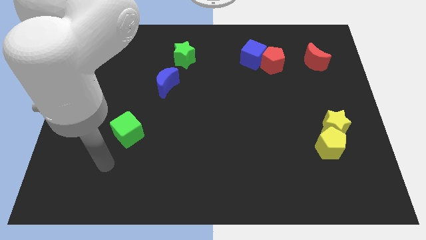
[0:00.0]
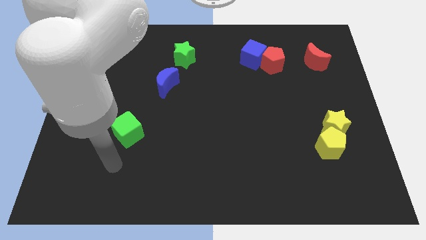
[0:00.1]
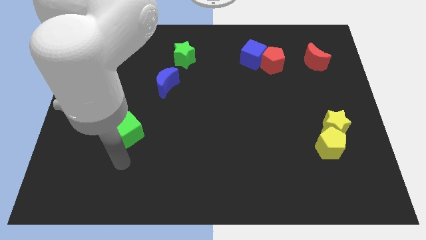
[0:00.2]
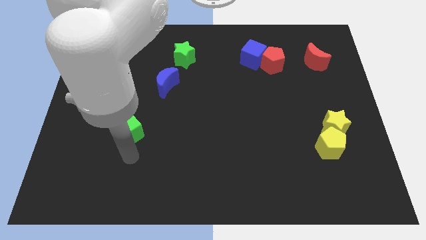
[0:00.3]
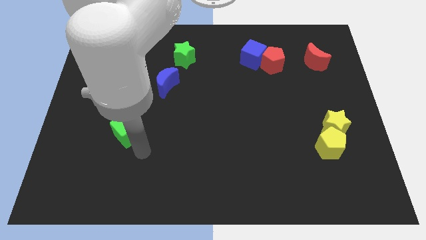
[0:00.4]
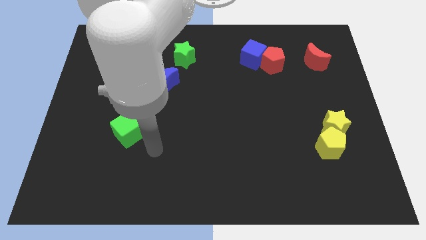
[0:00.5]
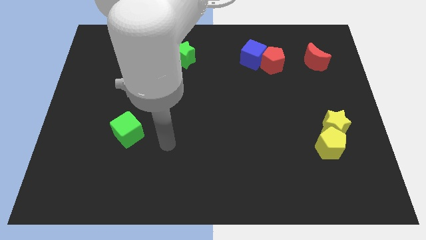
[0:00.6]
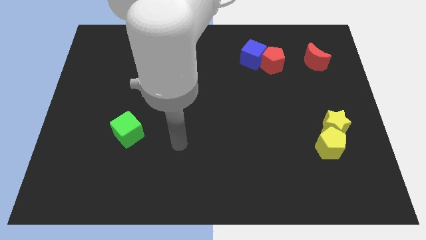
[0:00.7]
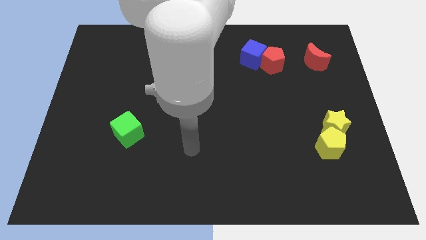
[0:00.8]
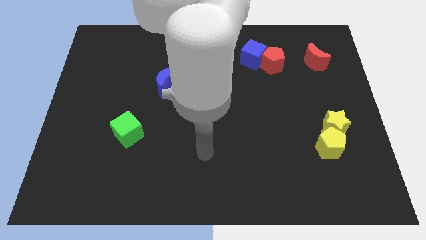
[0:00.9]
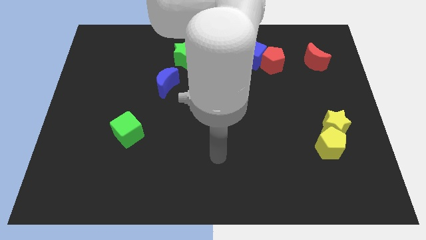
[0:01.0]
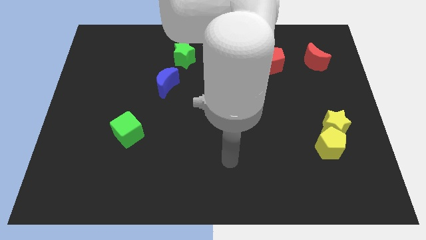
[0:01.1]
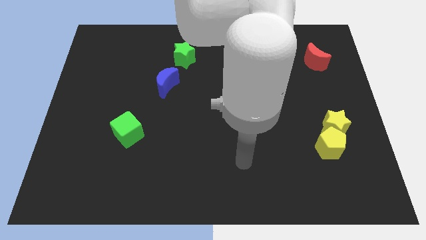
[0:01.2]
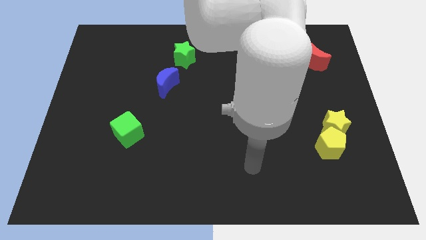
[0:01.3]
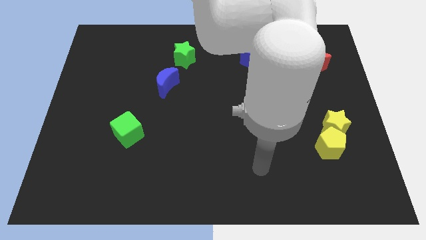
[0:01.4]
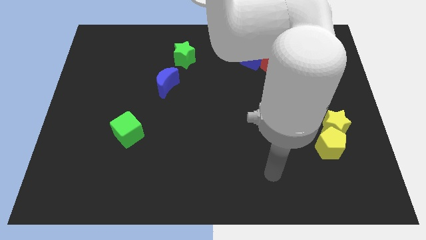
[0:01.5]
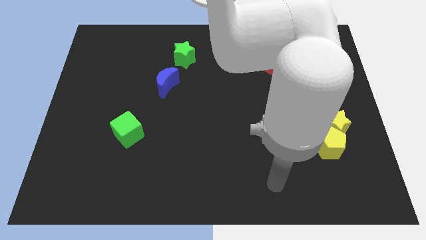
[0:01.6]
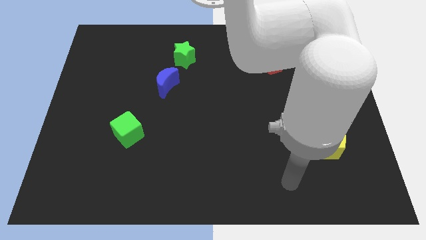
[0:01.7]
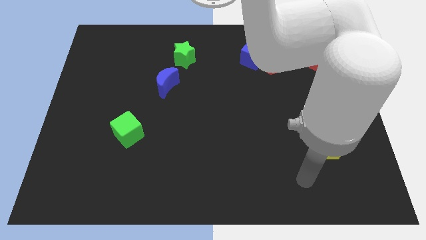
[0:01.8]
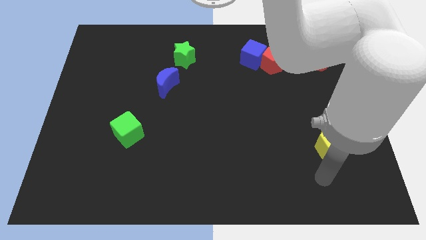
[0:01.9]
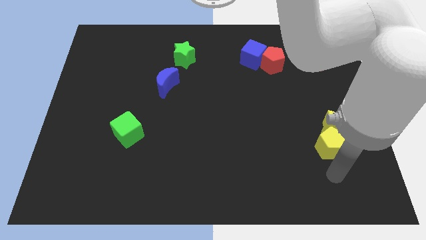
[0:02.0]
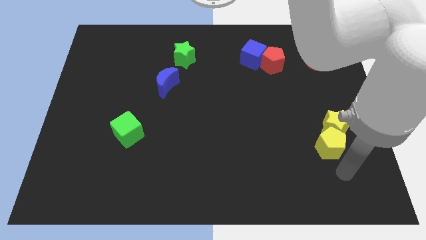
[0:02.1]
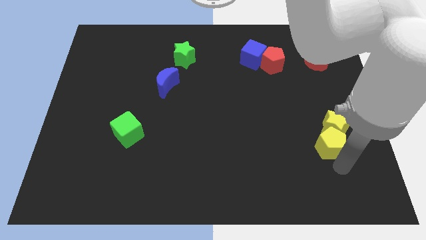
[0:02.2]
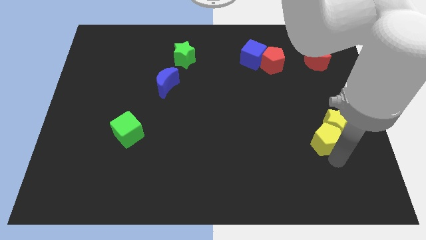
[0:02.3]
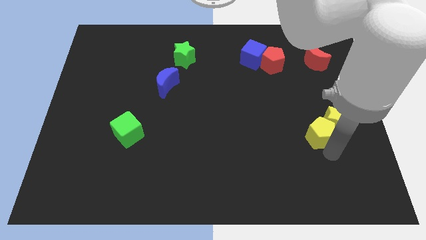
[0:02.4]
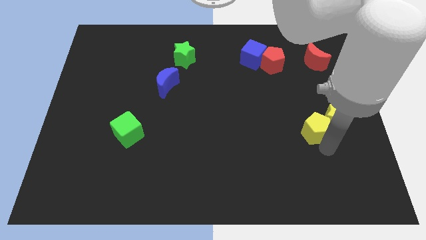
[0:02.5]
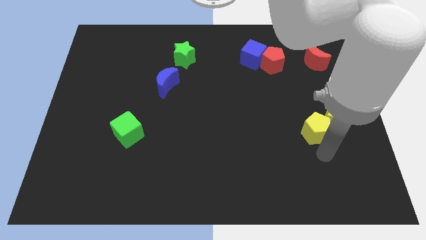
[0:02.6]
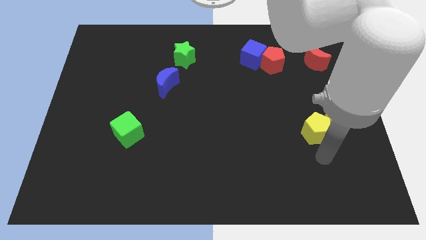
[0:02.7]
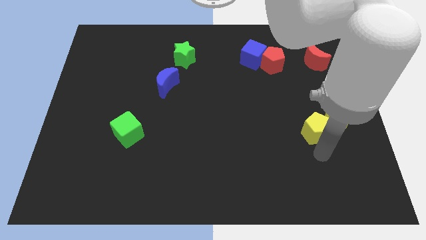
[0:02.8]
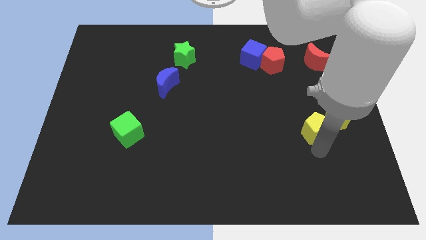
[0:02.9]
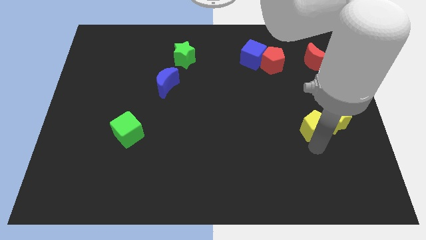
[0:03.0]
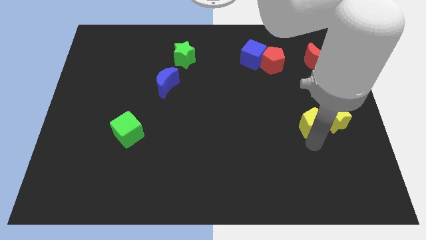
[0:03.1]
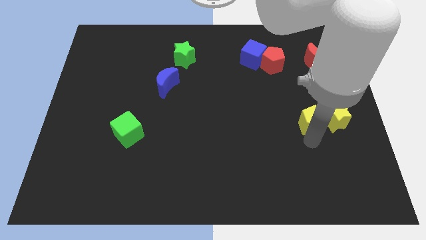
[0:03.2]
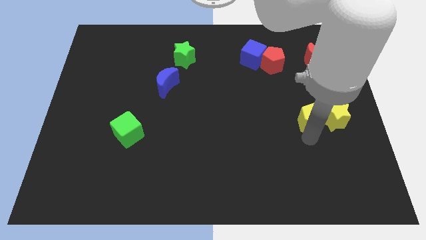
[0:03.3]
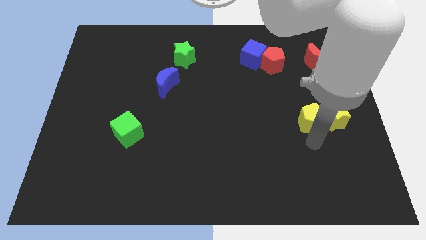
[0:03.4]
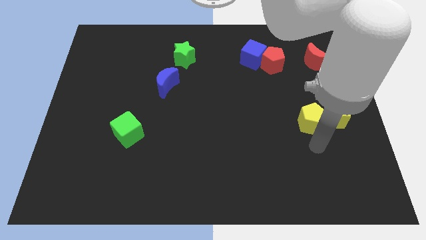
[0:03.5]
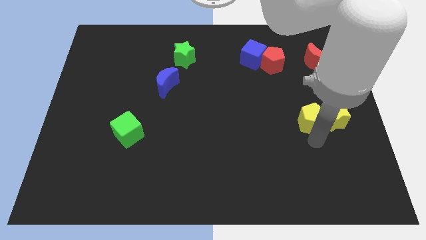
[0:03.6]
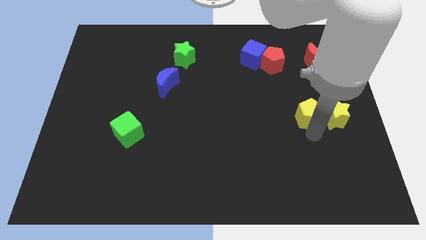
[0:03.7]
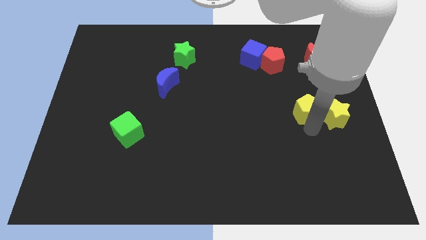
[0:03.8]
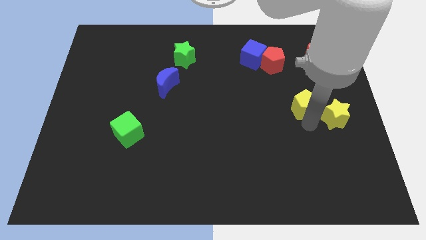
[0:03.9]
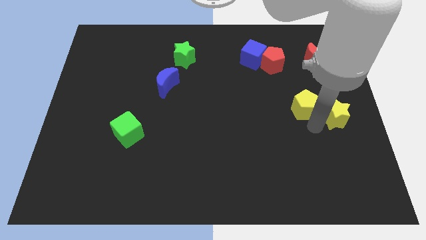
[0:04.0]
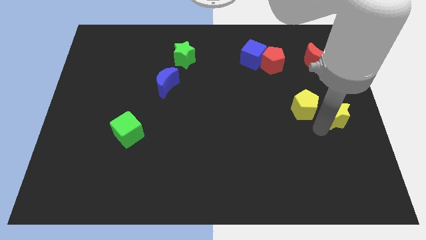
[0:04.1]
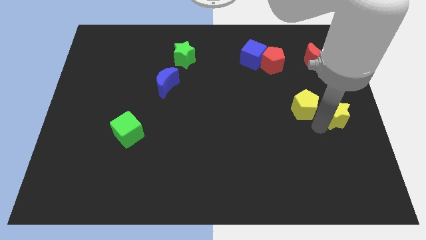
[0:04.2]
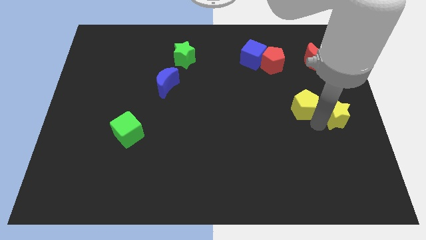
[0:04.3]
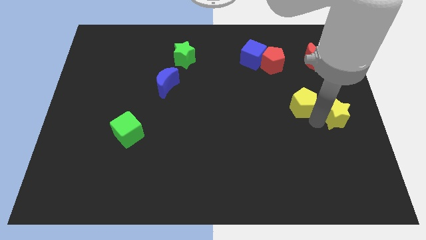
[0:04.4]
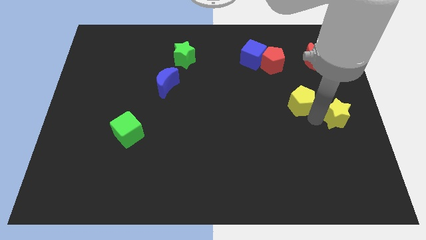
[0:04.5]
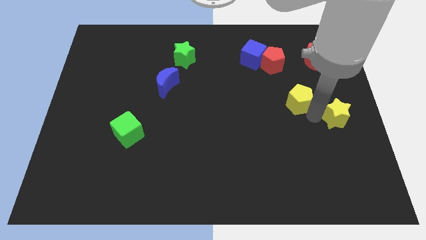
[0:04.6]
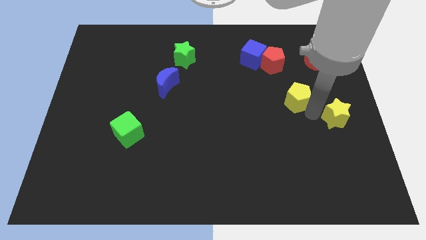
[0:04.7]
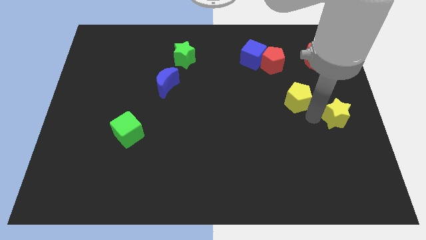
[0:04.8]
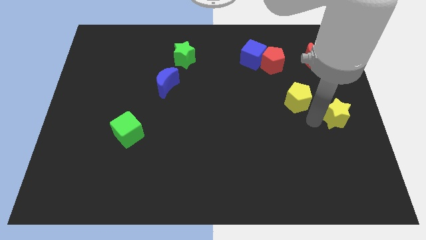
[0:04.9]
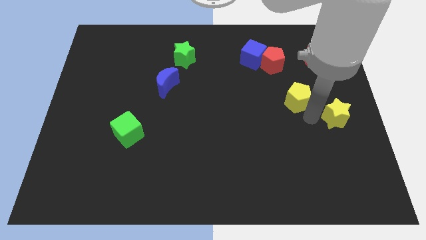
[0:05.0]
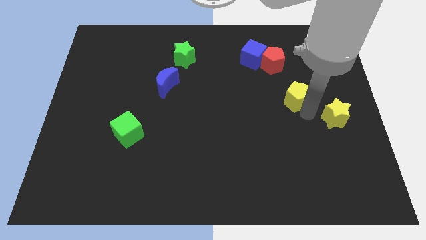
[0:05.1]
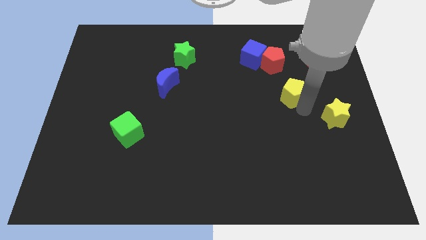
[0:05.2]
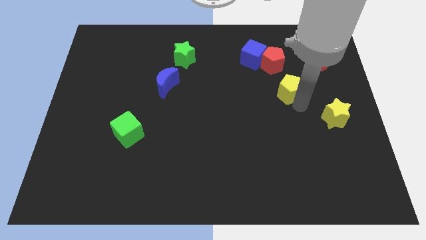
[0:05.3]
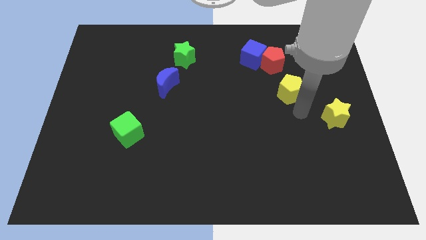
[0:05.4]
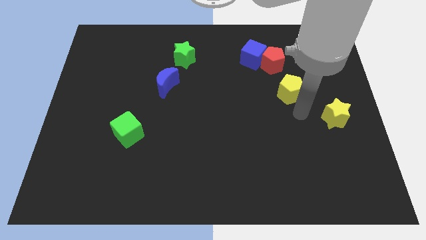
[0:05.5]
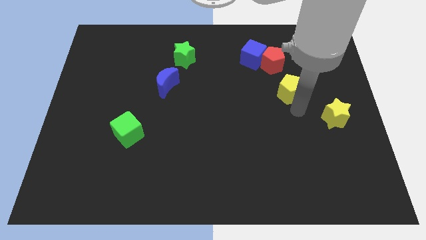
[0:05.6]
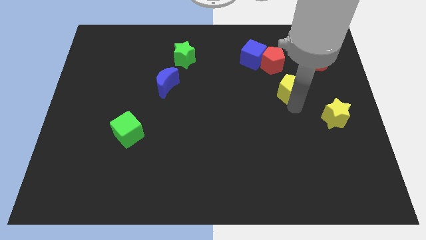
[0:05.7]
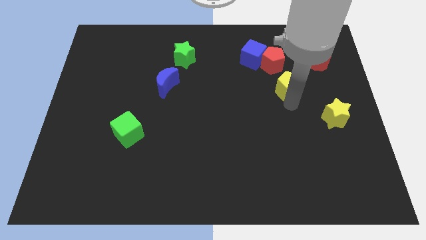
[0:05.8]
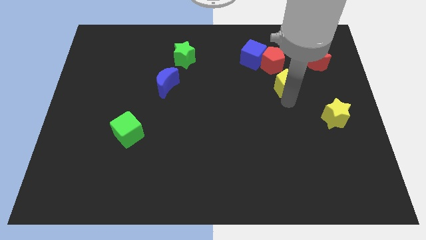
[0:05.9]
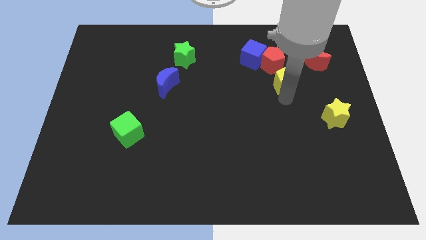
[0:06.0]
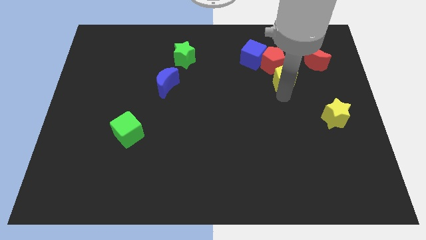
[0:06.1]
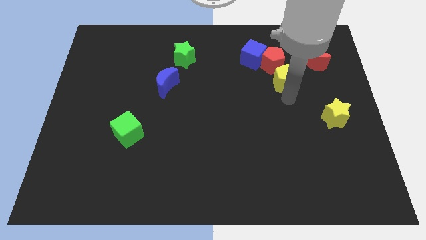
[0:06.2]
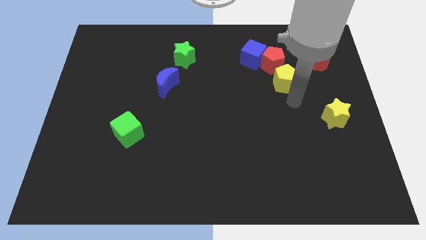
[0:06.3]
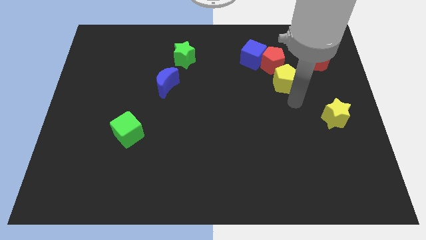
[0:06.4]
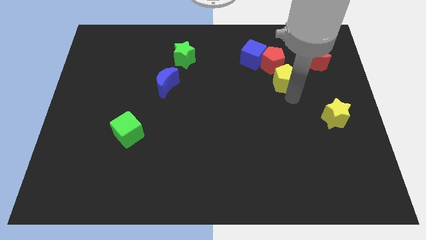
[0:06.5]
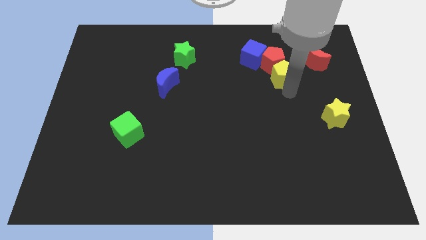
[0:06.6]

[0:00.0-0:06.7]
push the yellow pentagon next to the red pentagon
